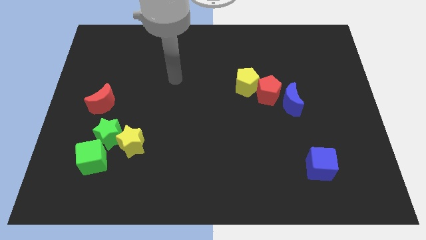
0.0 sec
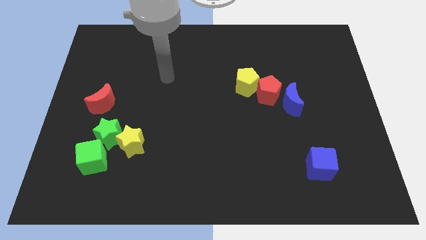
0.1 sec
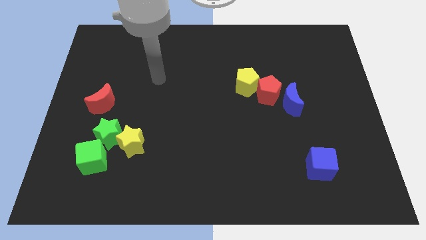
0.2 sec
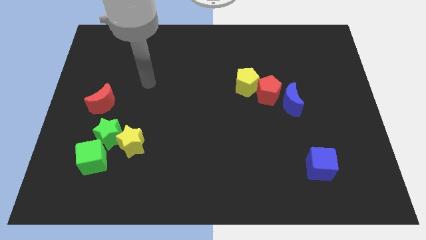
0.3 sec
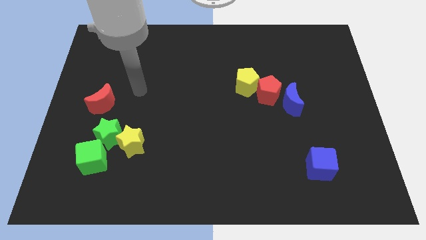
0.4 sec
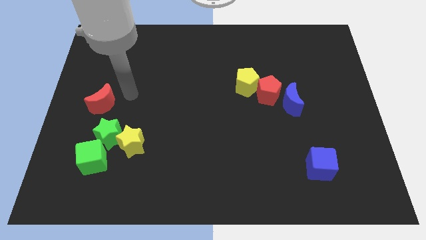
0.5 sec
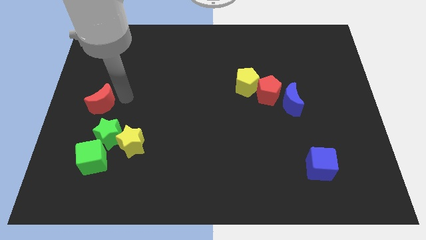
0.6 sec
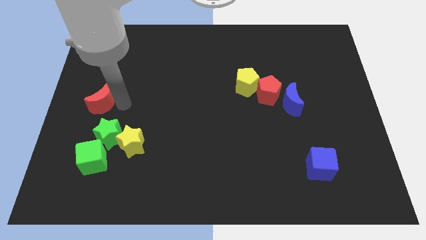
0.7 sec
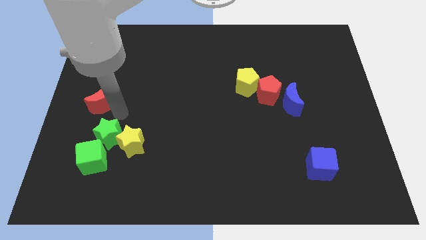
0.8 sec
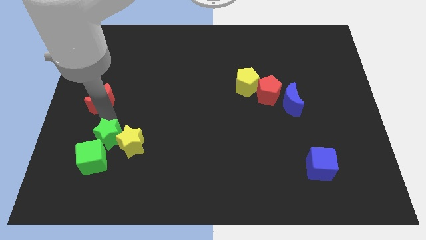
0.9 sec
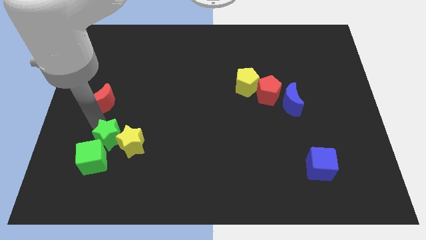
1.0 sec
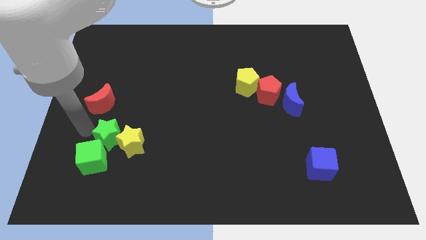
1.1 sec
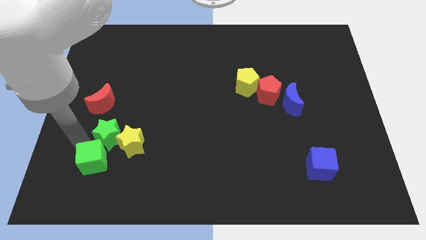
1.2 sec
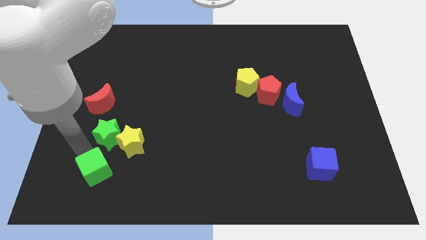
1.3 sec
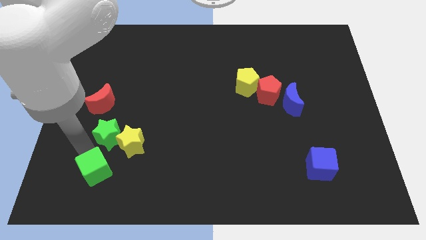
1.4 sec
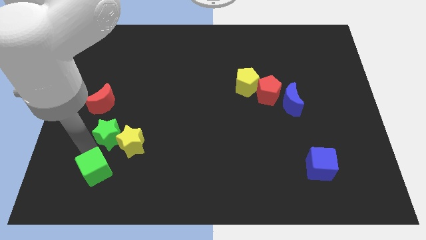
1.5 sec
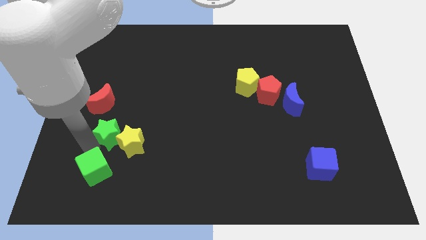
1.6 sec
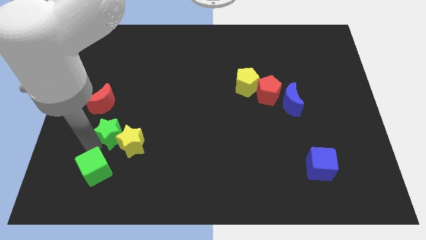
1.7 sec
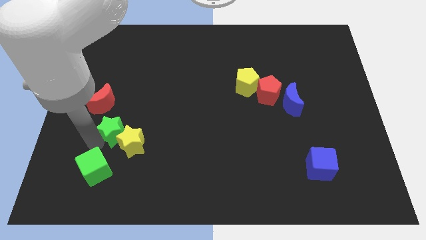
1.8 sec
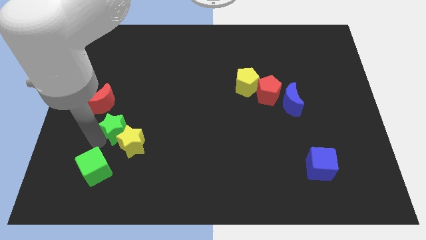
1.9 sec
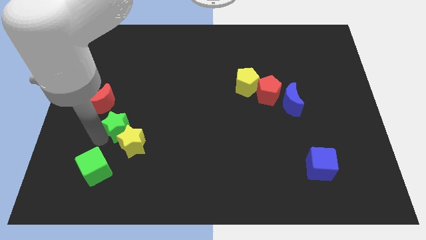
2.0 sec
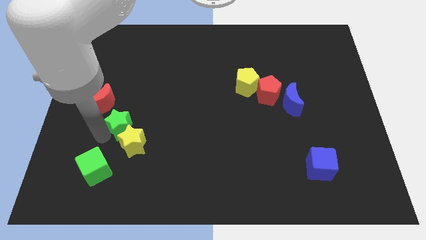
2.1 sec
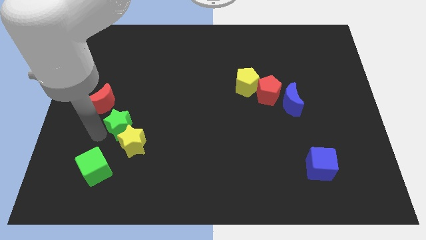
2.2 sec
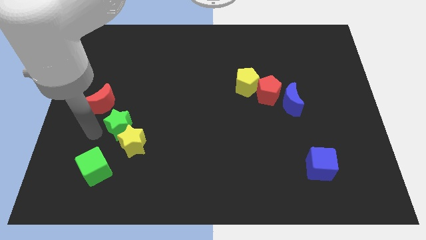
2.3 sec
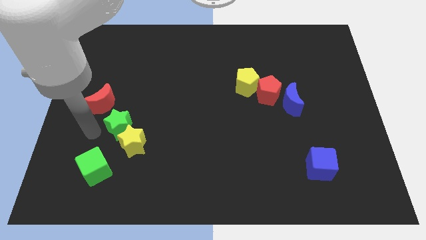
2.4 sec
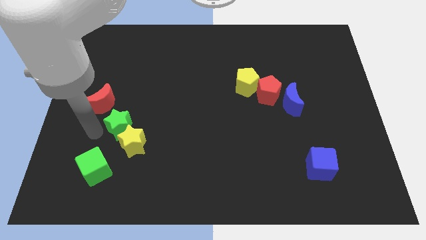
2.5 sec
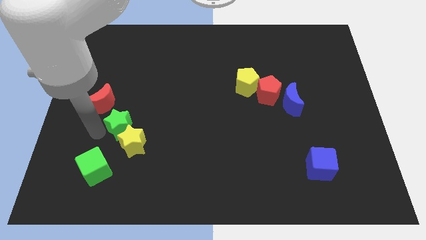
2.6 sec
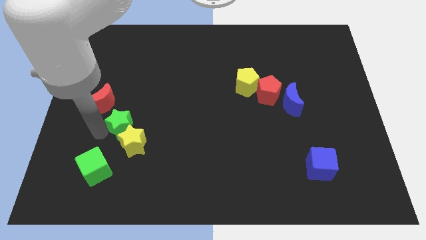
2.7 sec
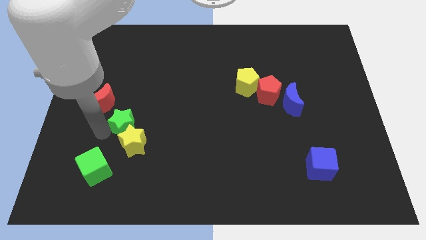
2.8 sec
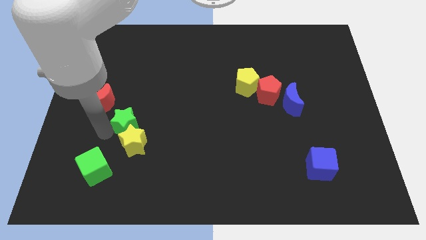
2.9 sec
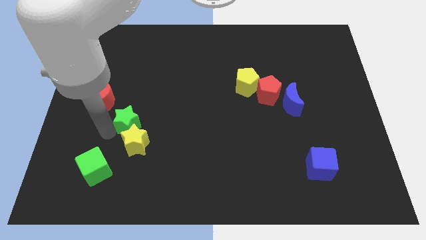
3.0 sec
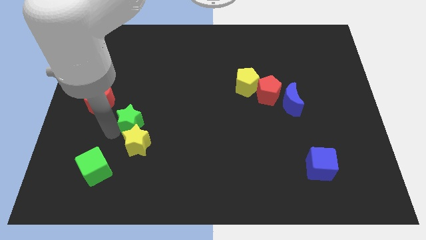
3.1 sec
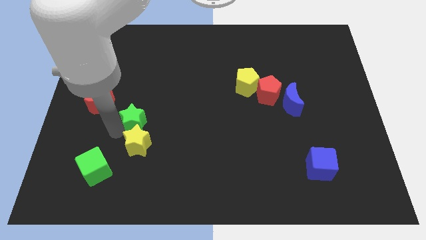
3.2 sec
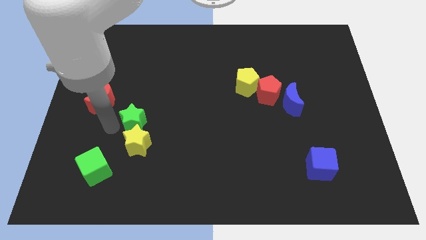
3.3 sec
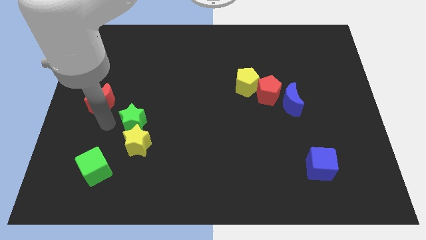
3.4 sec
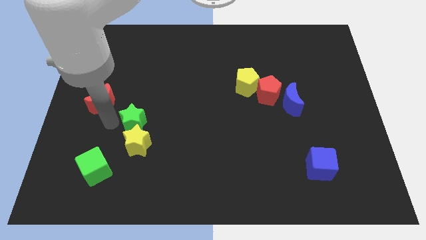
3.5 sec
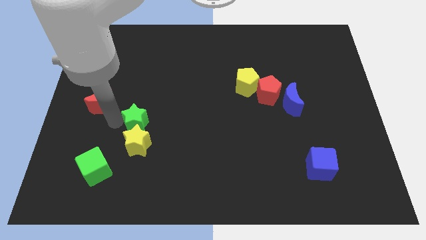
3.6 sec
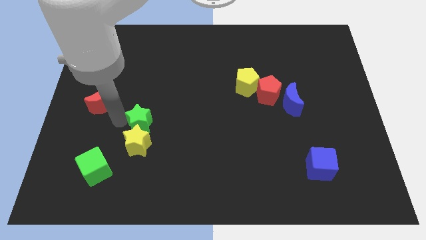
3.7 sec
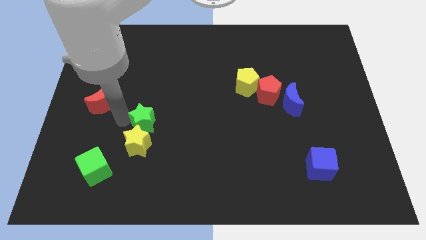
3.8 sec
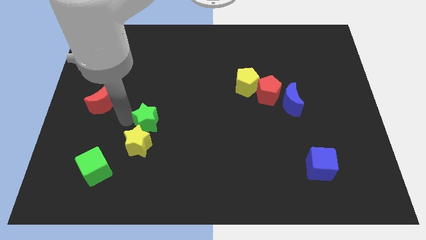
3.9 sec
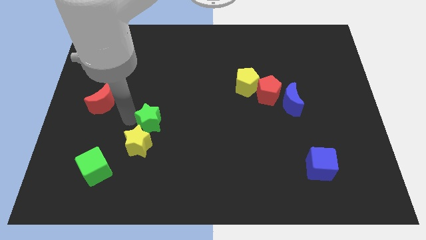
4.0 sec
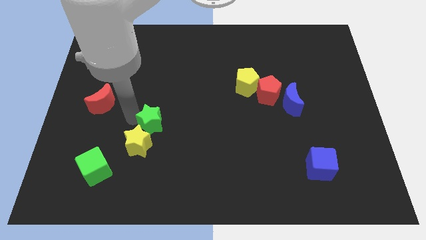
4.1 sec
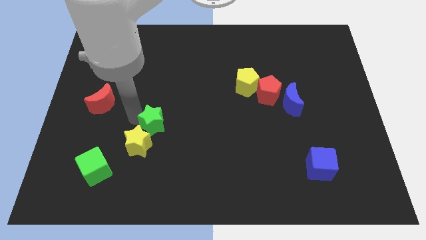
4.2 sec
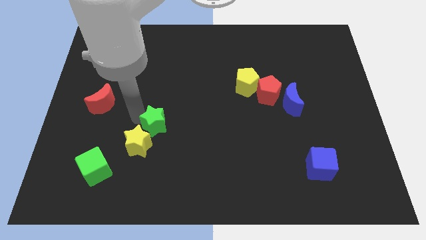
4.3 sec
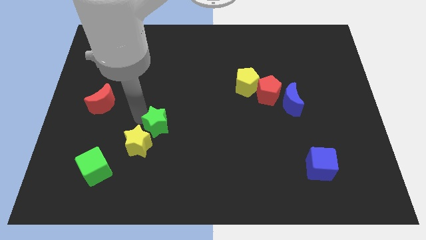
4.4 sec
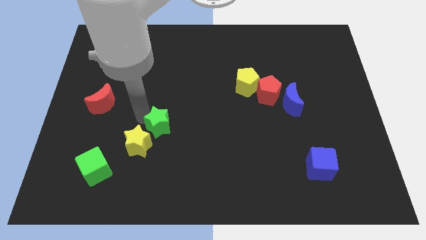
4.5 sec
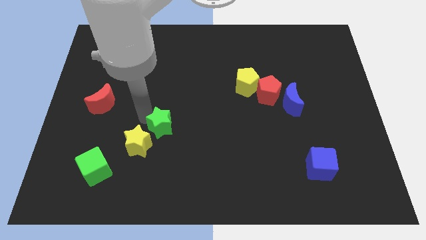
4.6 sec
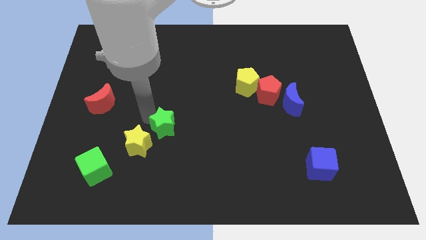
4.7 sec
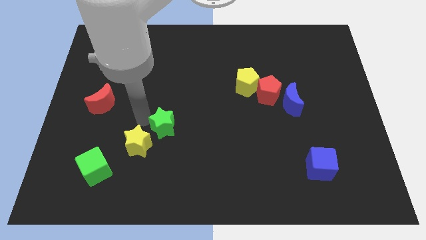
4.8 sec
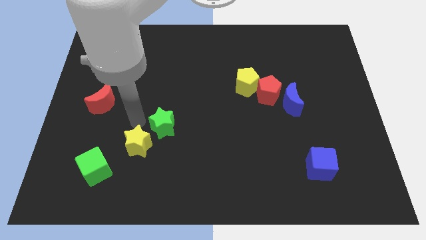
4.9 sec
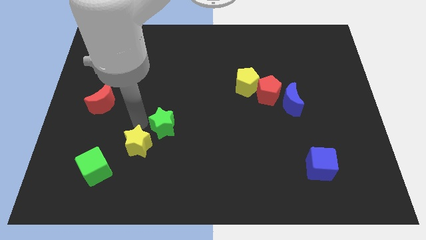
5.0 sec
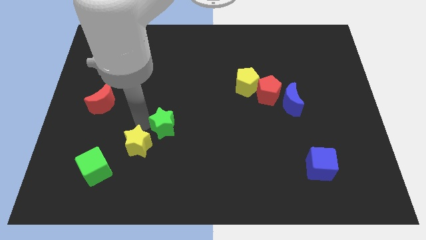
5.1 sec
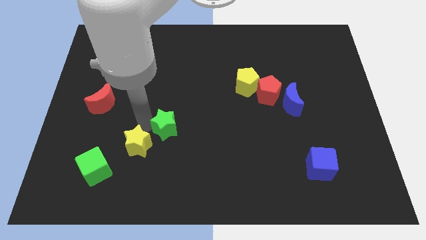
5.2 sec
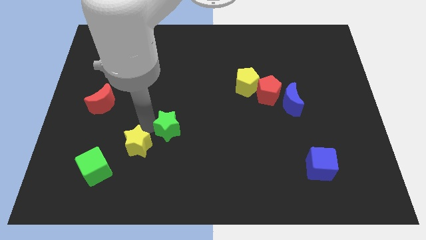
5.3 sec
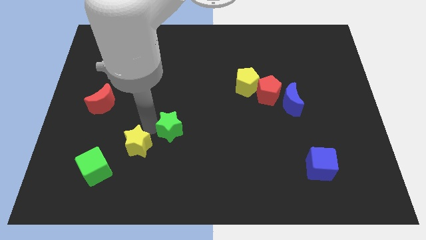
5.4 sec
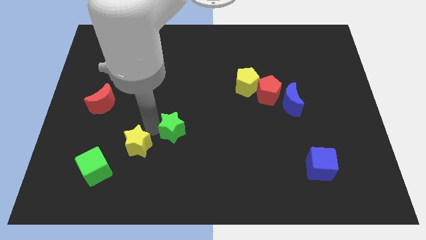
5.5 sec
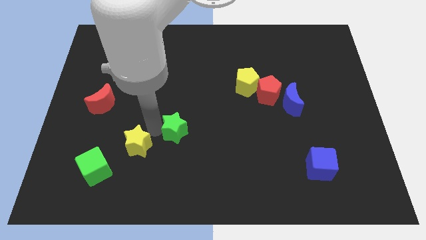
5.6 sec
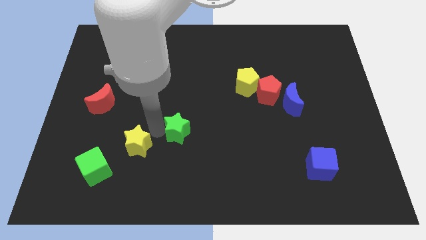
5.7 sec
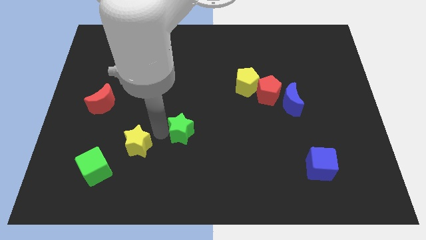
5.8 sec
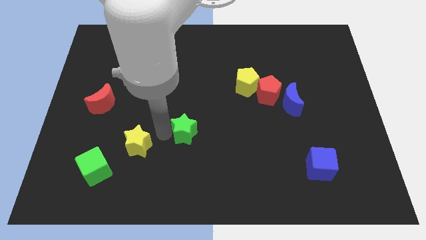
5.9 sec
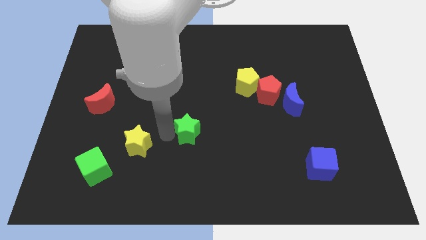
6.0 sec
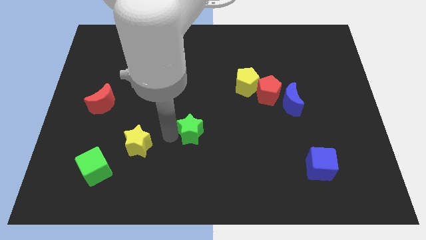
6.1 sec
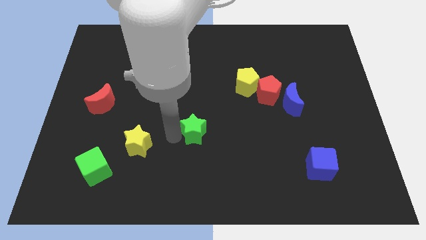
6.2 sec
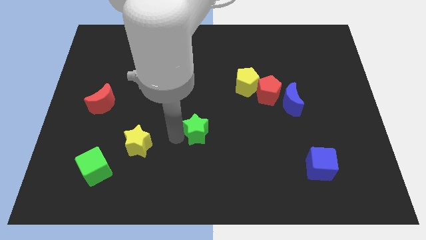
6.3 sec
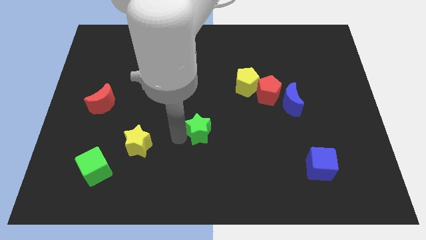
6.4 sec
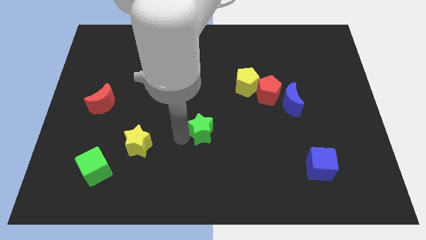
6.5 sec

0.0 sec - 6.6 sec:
move the green star right

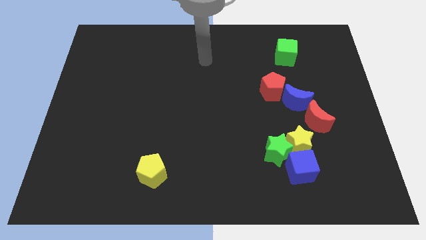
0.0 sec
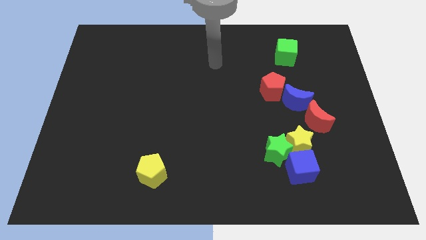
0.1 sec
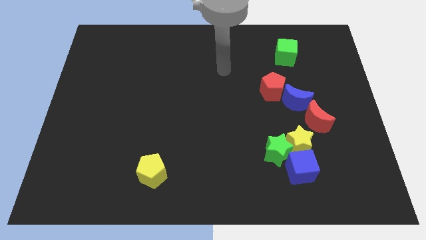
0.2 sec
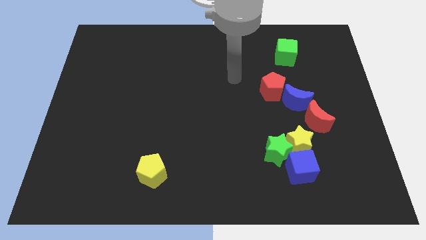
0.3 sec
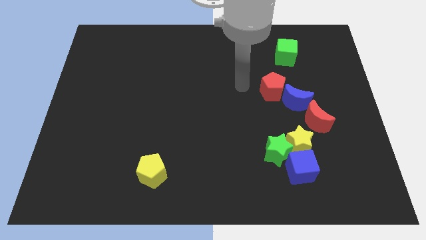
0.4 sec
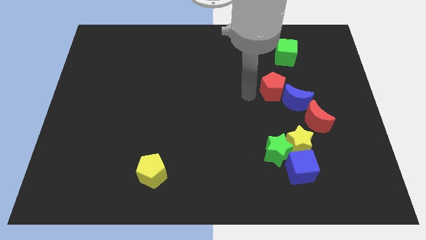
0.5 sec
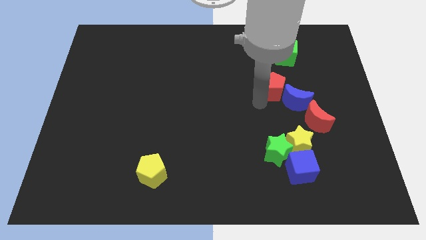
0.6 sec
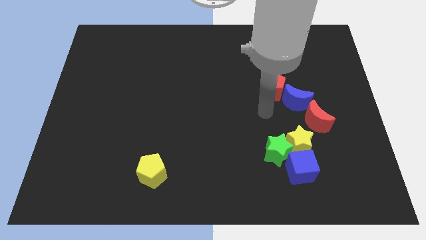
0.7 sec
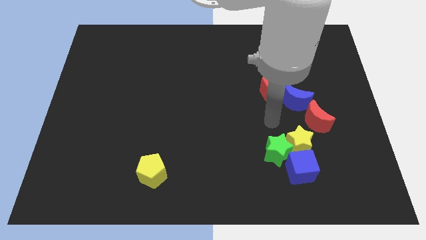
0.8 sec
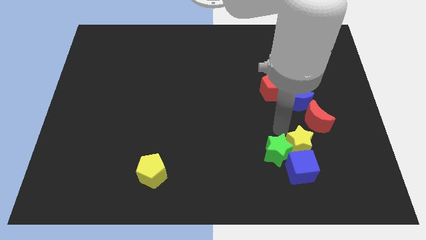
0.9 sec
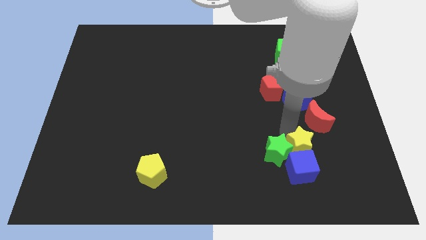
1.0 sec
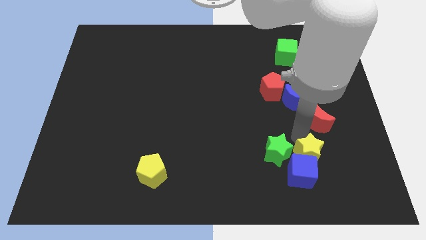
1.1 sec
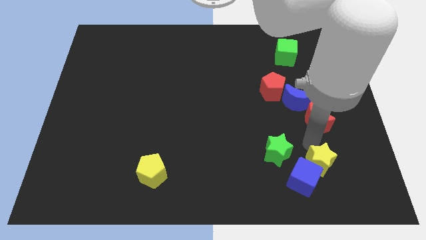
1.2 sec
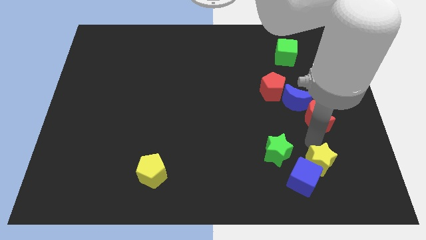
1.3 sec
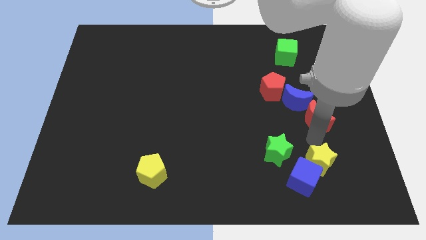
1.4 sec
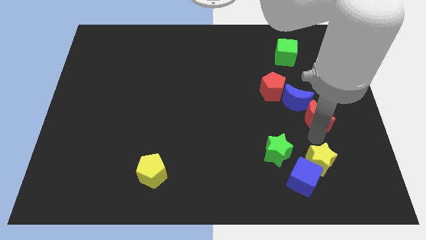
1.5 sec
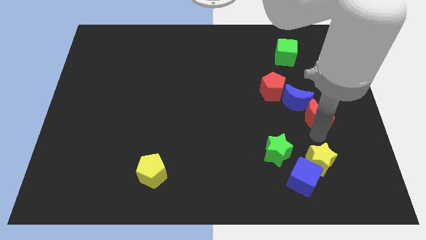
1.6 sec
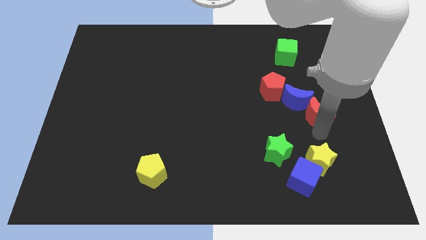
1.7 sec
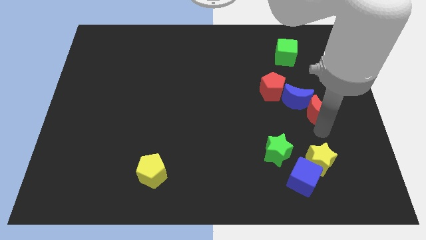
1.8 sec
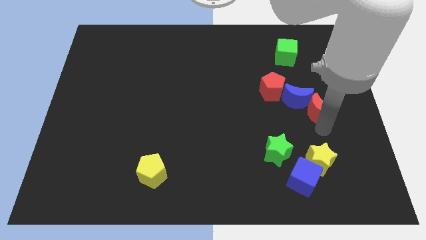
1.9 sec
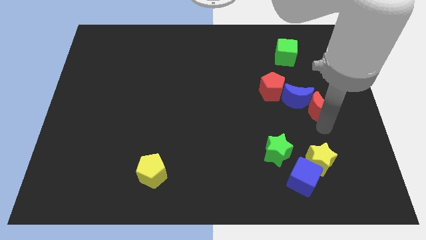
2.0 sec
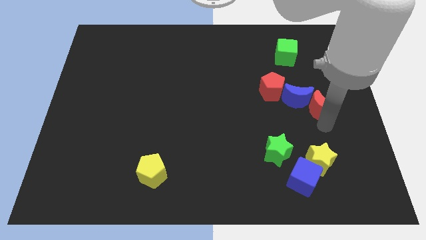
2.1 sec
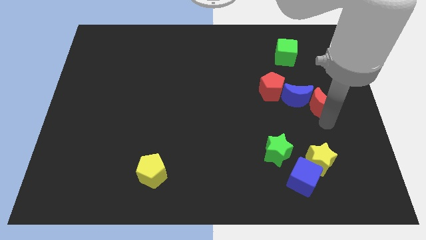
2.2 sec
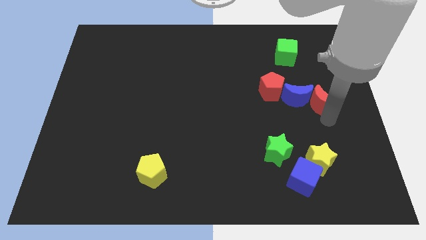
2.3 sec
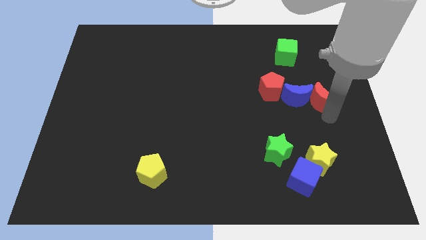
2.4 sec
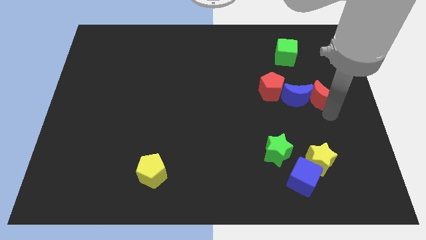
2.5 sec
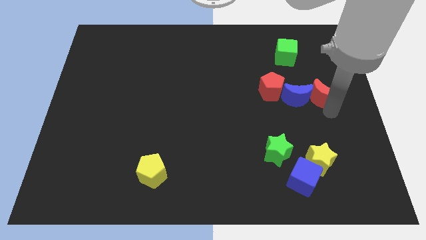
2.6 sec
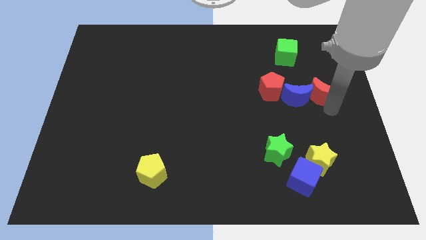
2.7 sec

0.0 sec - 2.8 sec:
slightly slide the red moon upwards
